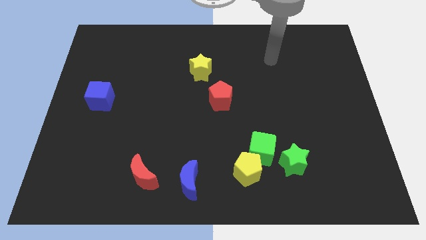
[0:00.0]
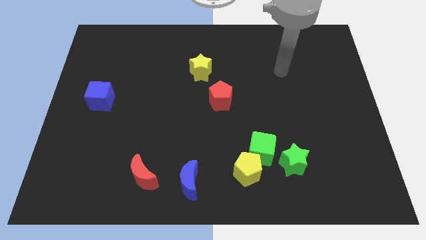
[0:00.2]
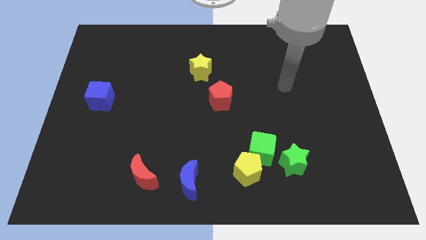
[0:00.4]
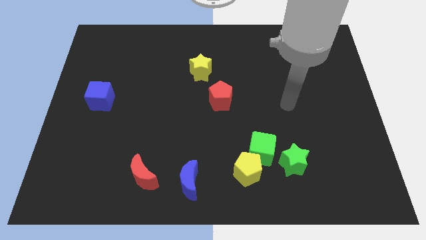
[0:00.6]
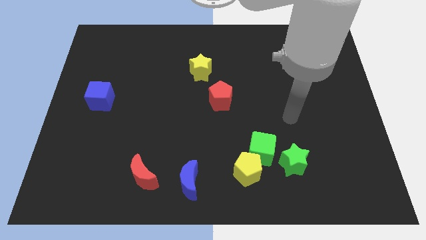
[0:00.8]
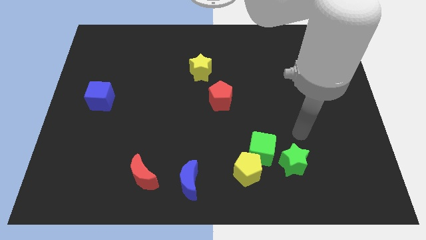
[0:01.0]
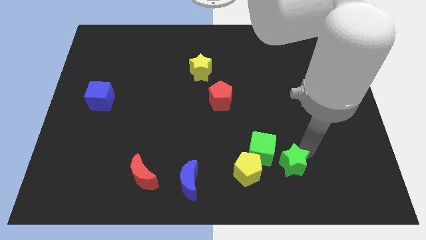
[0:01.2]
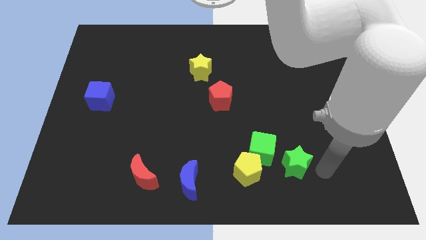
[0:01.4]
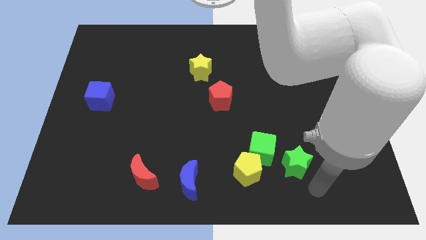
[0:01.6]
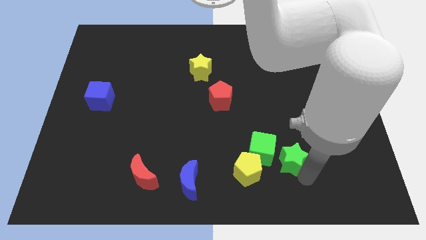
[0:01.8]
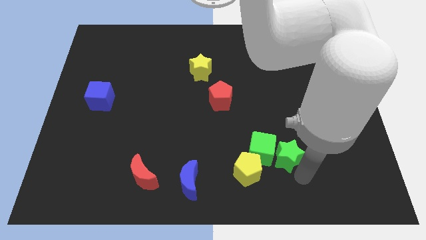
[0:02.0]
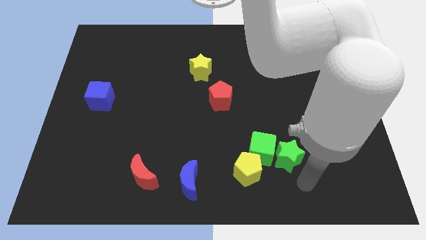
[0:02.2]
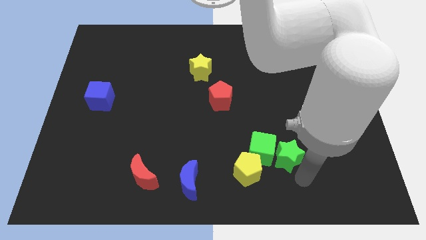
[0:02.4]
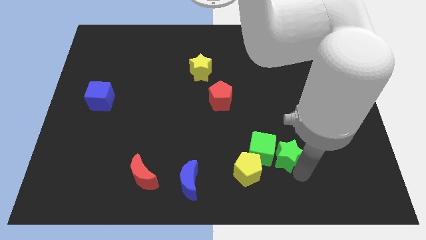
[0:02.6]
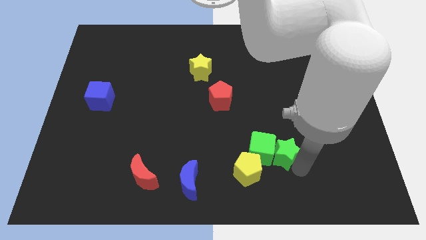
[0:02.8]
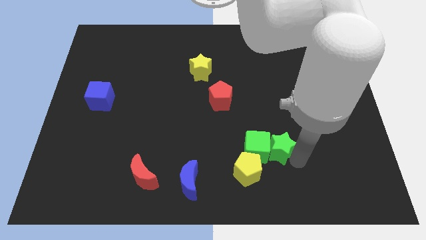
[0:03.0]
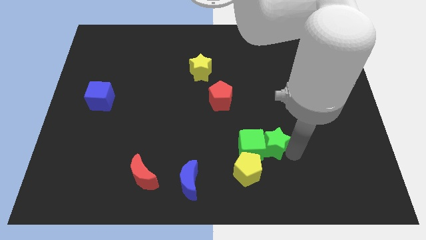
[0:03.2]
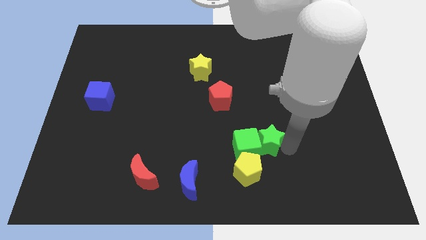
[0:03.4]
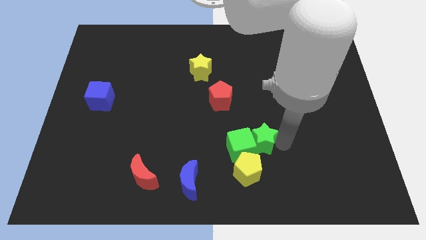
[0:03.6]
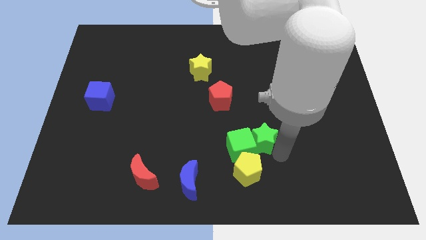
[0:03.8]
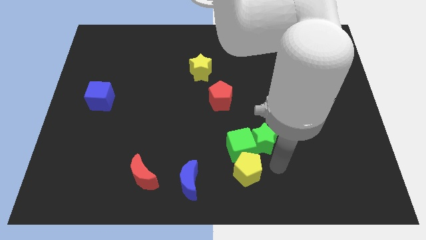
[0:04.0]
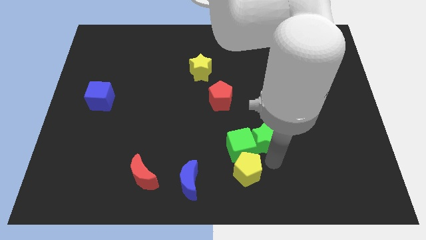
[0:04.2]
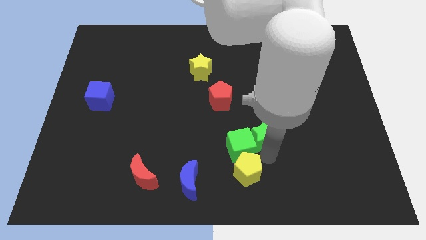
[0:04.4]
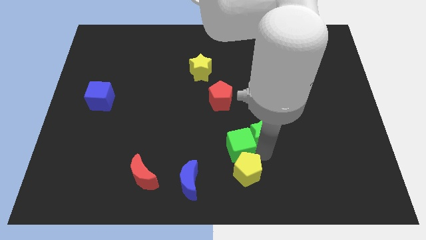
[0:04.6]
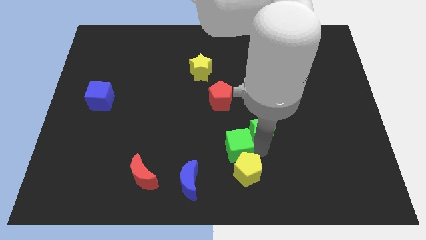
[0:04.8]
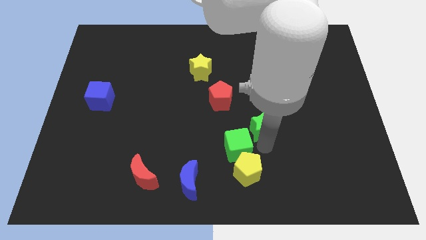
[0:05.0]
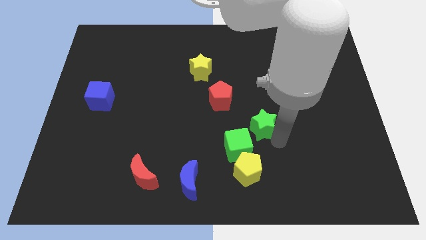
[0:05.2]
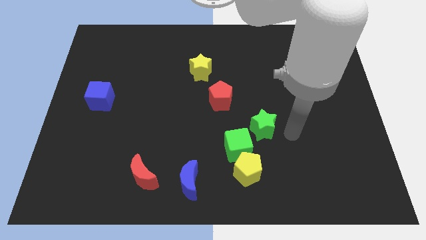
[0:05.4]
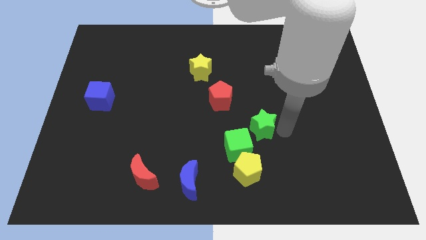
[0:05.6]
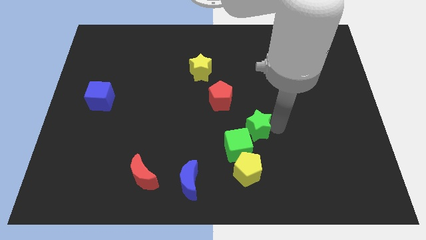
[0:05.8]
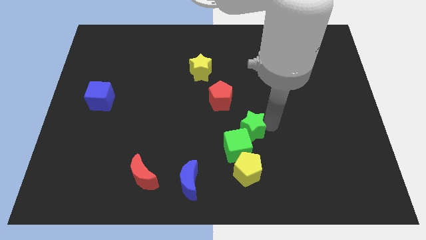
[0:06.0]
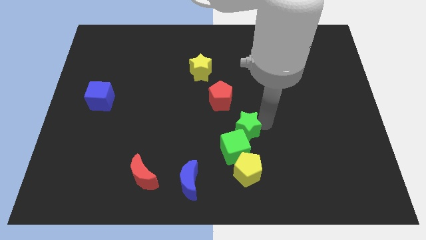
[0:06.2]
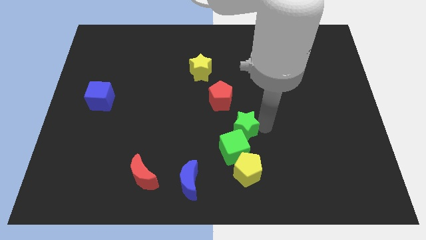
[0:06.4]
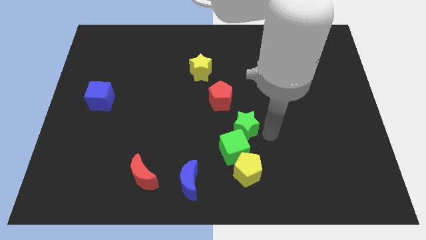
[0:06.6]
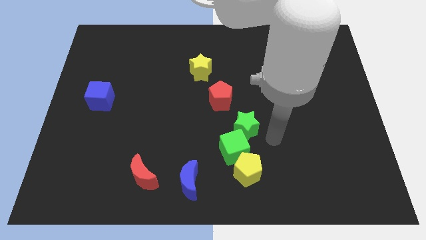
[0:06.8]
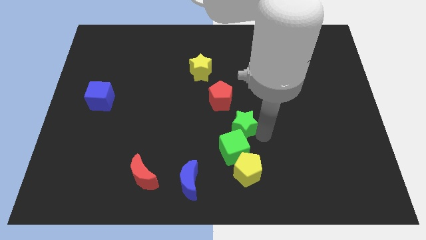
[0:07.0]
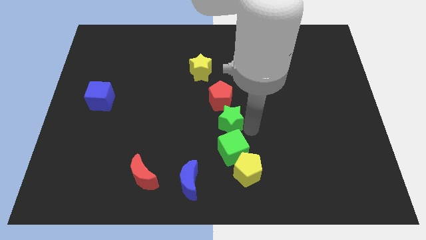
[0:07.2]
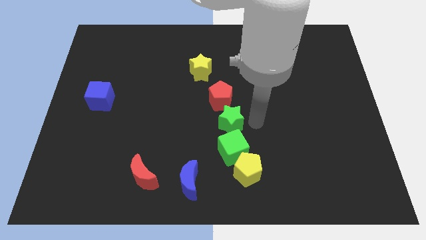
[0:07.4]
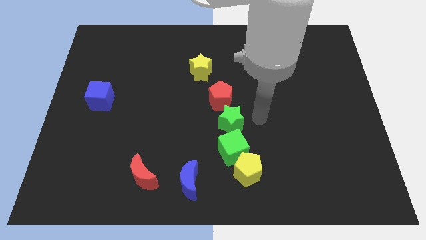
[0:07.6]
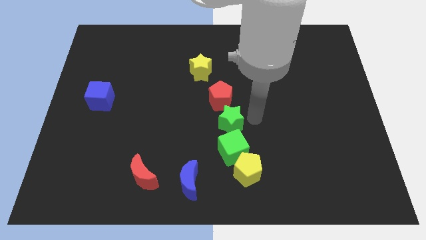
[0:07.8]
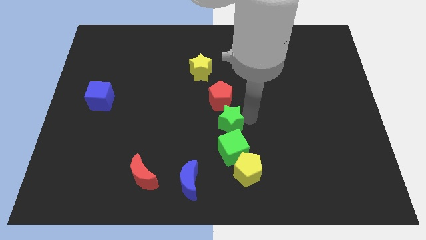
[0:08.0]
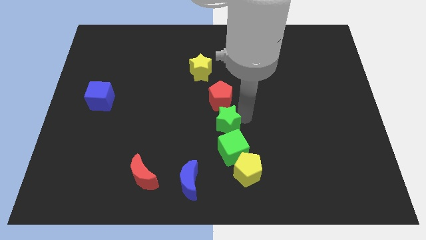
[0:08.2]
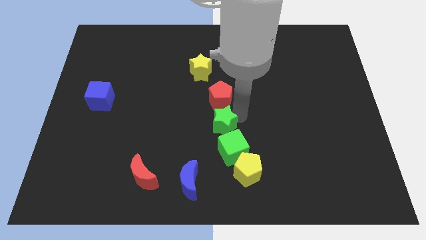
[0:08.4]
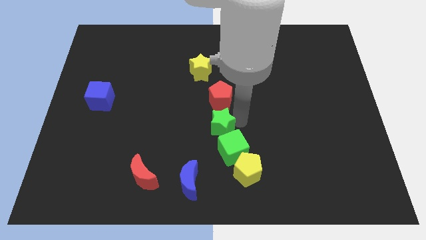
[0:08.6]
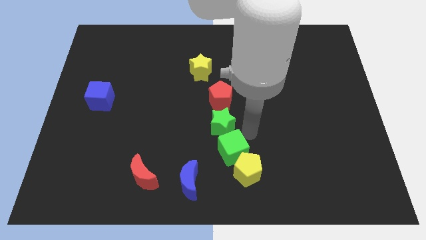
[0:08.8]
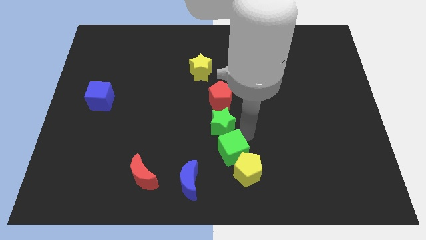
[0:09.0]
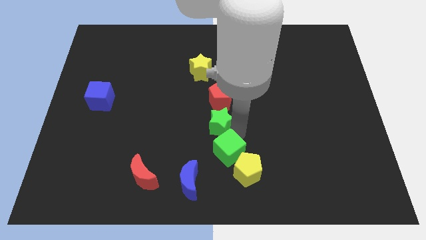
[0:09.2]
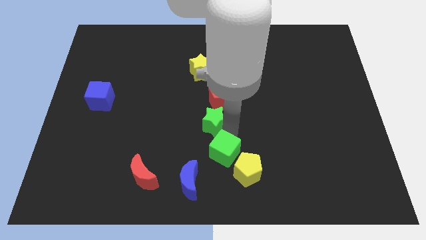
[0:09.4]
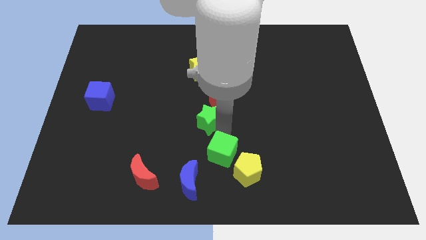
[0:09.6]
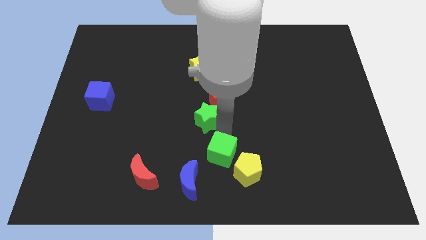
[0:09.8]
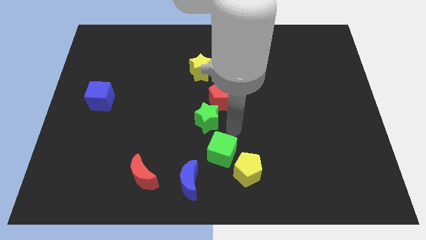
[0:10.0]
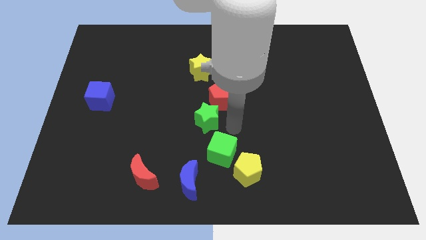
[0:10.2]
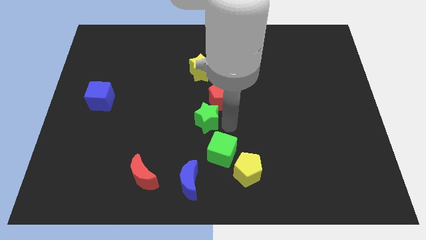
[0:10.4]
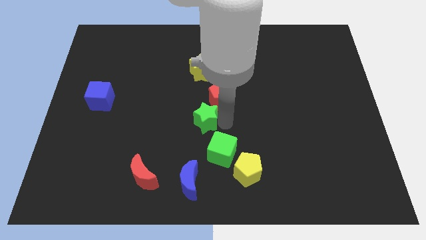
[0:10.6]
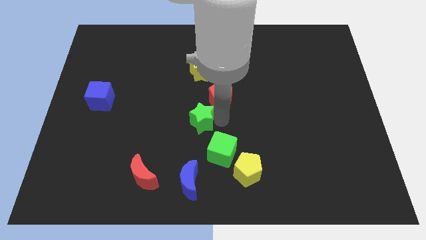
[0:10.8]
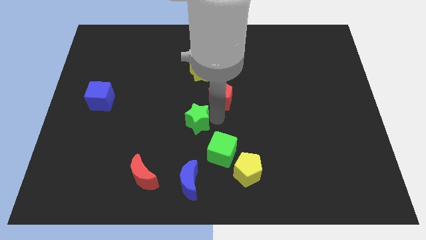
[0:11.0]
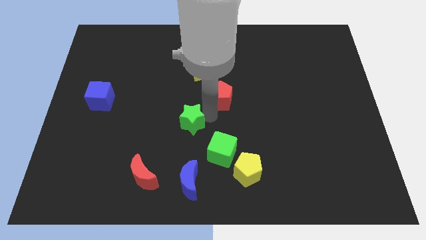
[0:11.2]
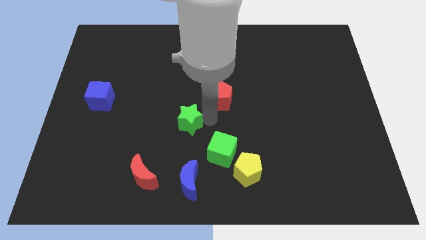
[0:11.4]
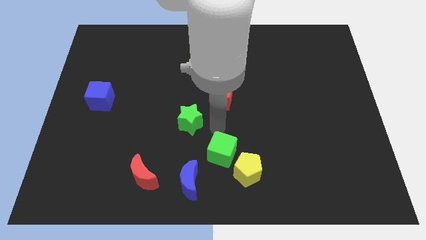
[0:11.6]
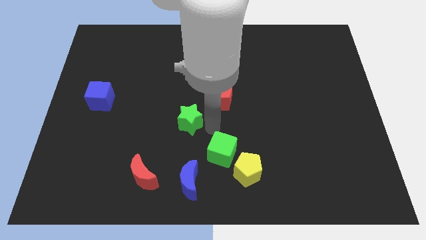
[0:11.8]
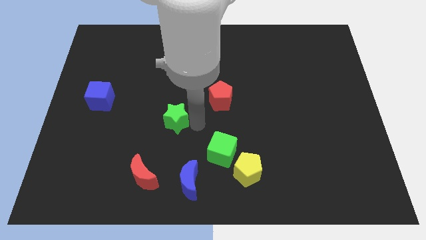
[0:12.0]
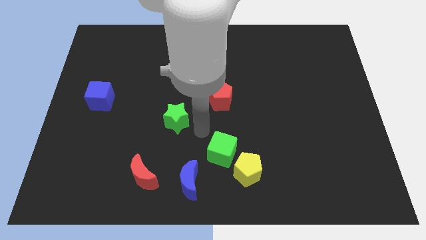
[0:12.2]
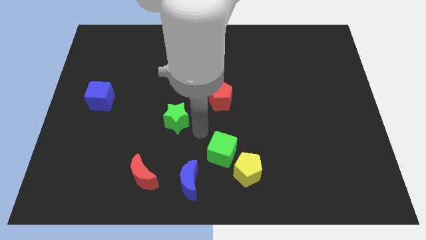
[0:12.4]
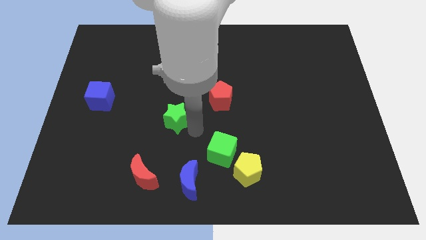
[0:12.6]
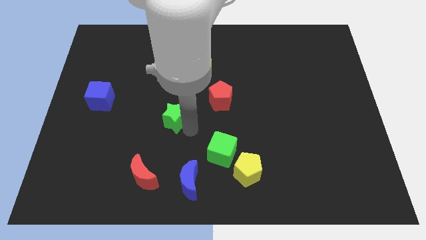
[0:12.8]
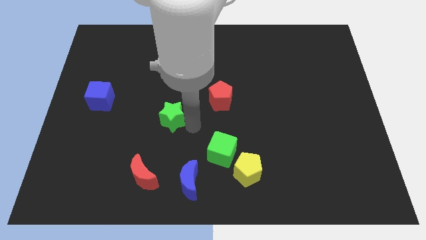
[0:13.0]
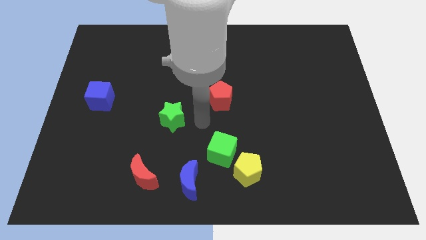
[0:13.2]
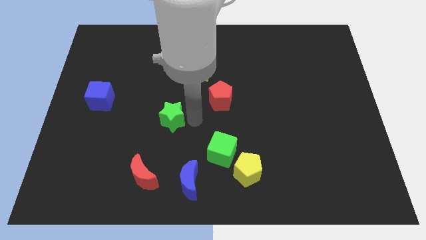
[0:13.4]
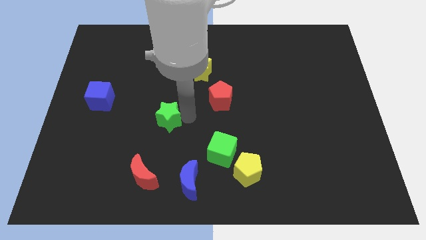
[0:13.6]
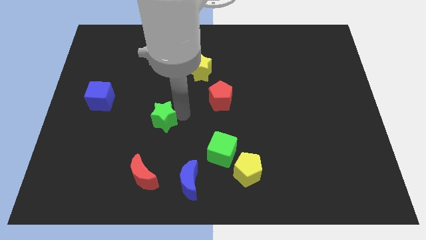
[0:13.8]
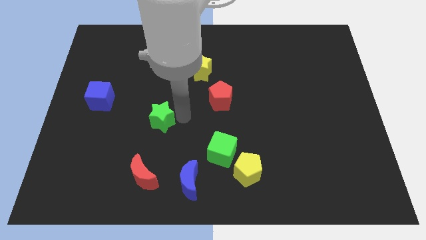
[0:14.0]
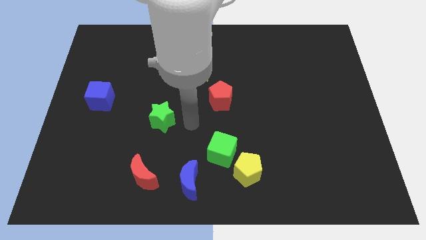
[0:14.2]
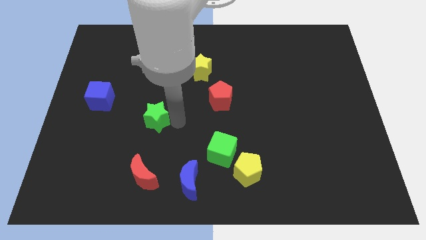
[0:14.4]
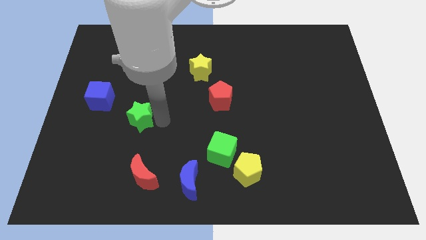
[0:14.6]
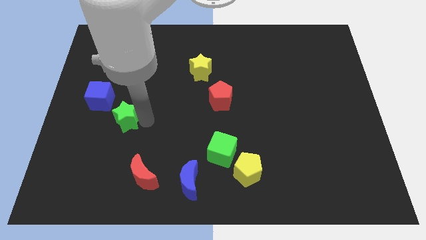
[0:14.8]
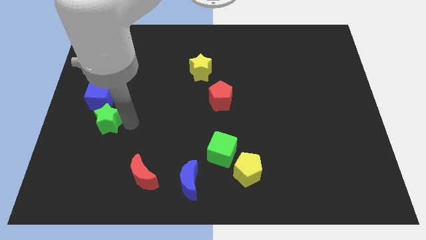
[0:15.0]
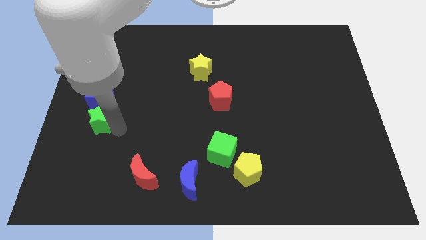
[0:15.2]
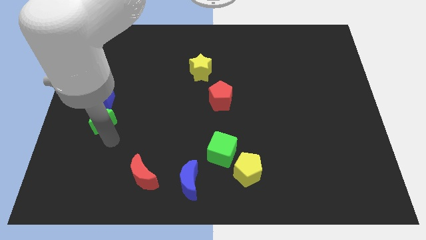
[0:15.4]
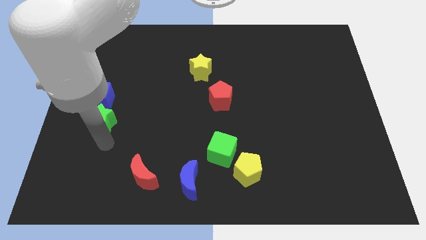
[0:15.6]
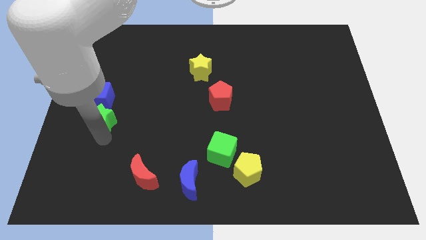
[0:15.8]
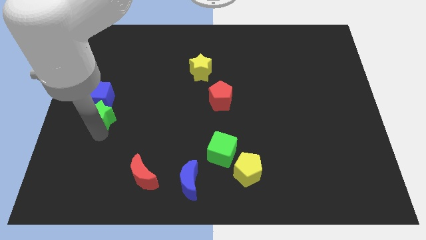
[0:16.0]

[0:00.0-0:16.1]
move the green star close to the blue cube

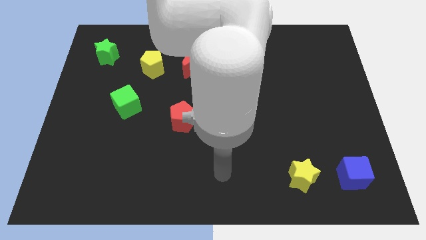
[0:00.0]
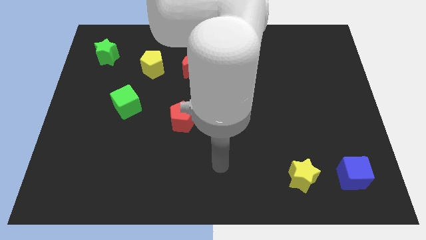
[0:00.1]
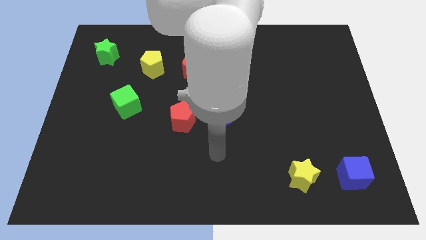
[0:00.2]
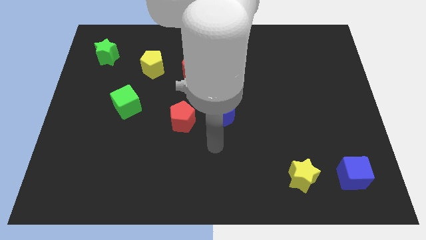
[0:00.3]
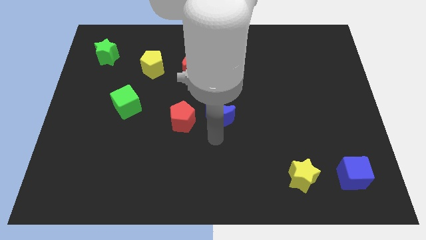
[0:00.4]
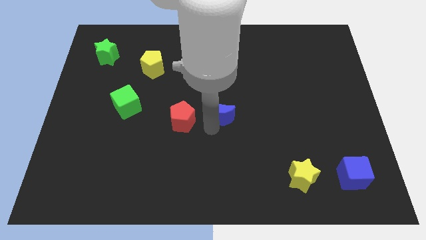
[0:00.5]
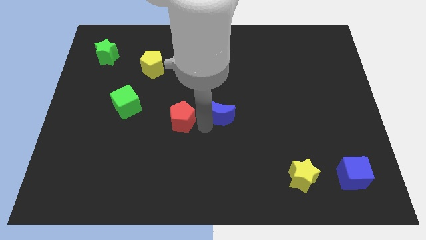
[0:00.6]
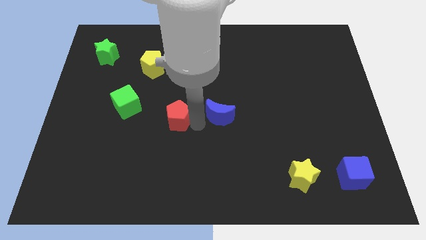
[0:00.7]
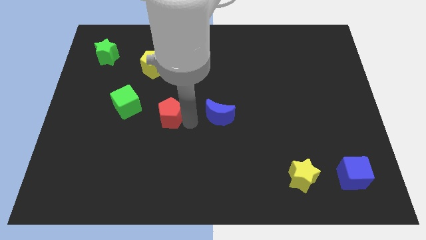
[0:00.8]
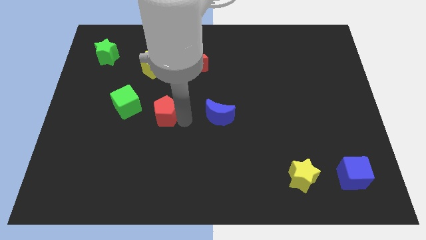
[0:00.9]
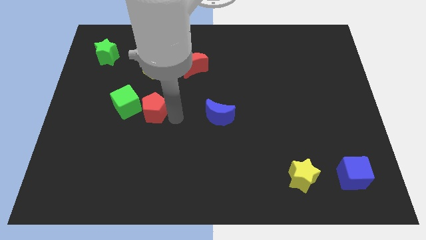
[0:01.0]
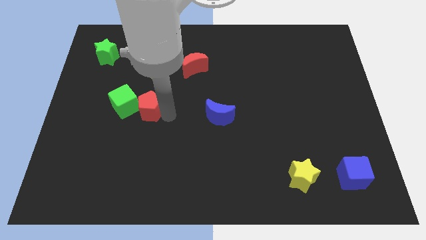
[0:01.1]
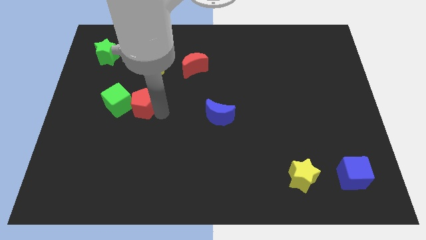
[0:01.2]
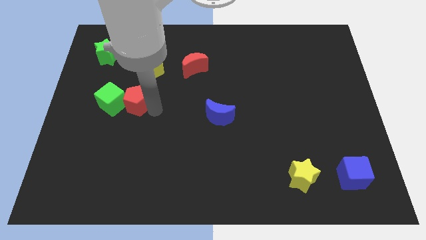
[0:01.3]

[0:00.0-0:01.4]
put the red pentagon towards the green cube
